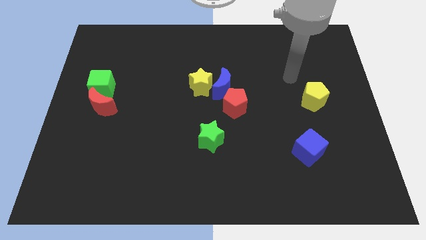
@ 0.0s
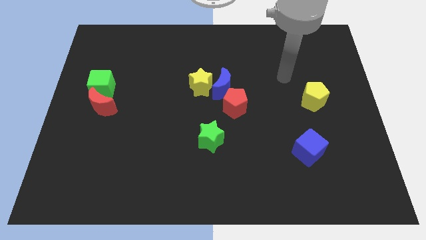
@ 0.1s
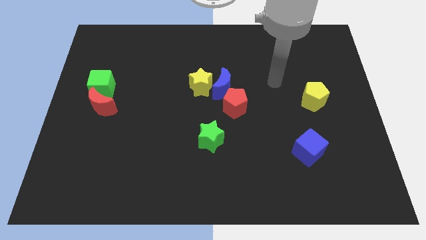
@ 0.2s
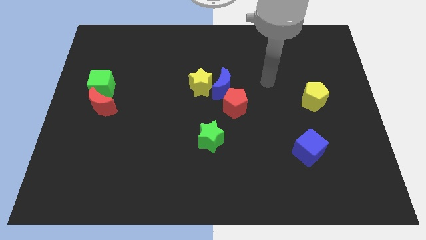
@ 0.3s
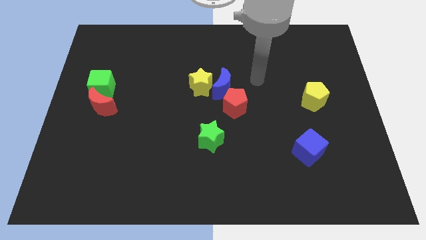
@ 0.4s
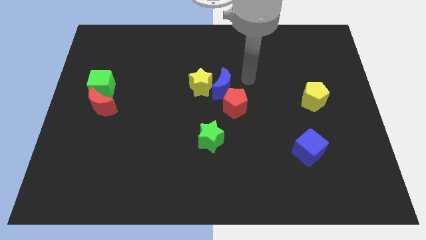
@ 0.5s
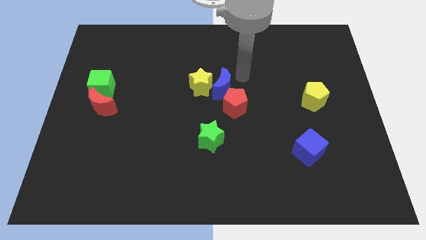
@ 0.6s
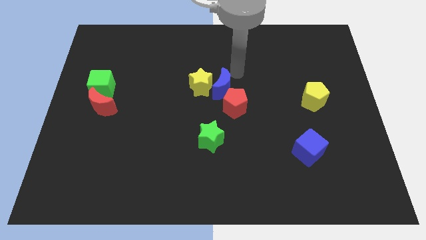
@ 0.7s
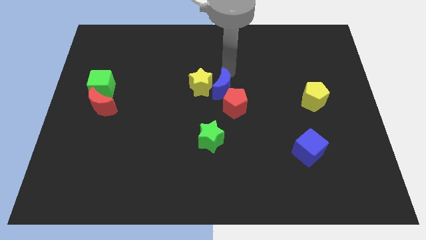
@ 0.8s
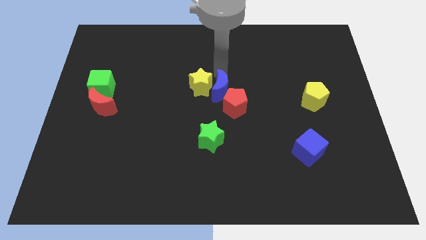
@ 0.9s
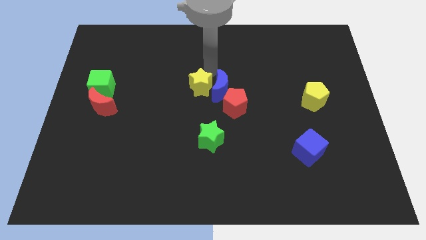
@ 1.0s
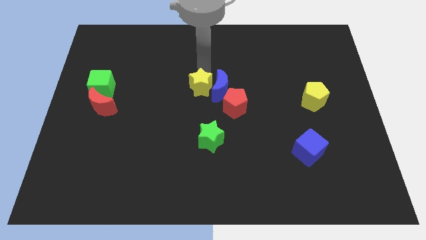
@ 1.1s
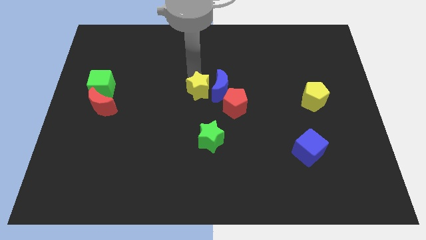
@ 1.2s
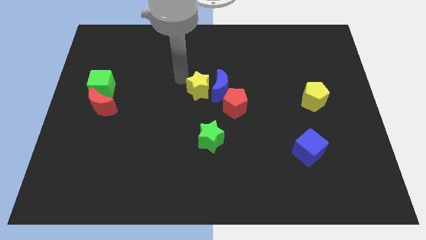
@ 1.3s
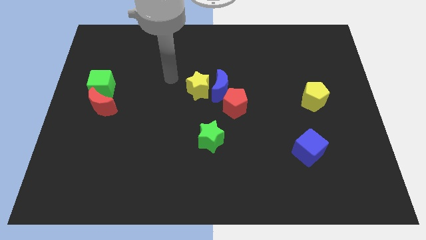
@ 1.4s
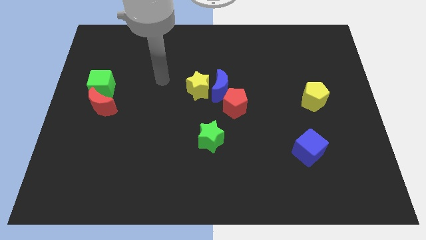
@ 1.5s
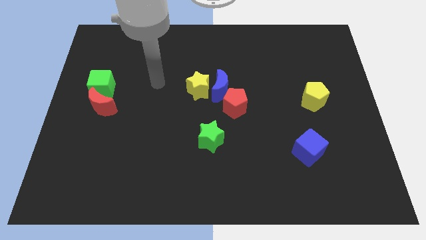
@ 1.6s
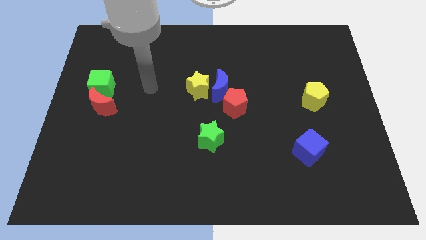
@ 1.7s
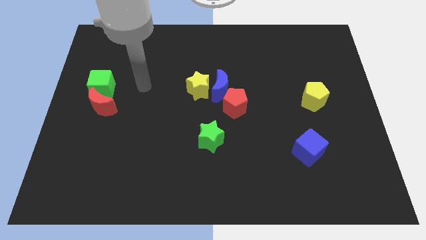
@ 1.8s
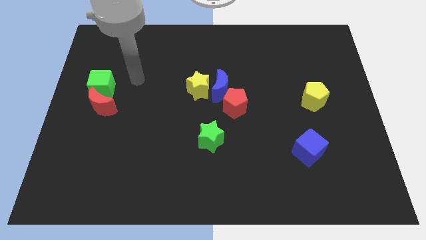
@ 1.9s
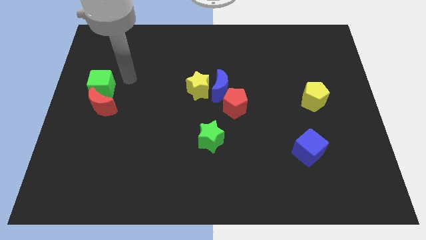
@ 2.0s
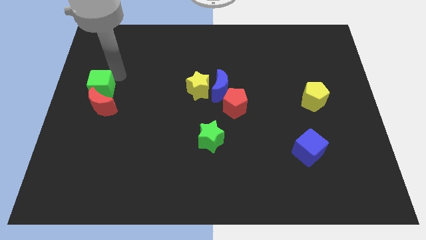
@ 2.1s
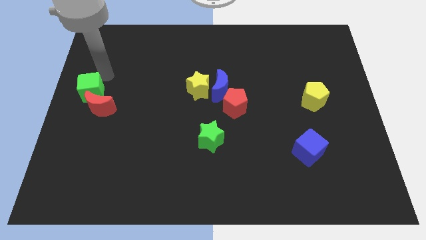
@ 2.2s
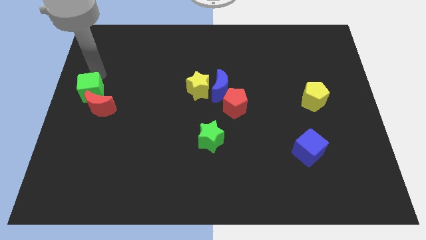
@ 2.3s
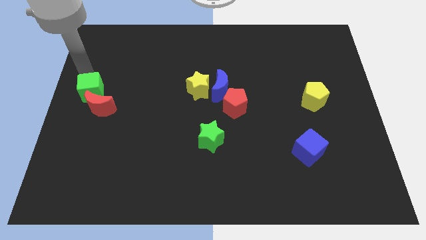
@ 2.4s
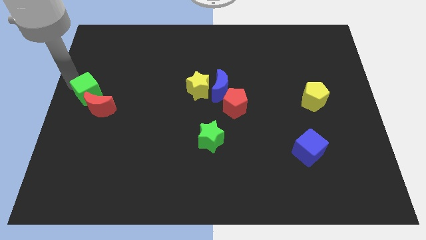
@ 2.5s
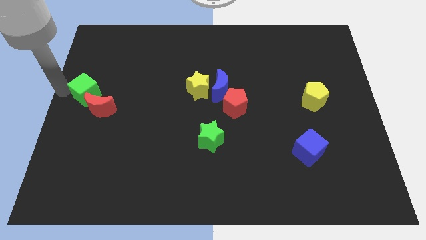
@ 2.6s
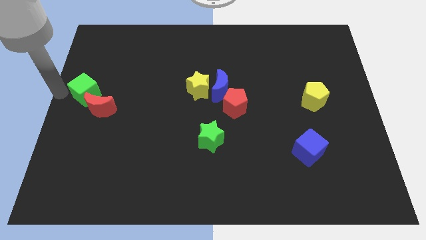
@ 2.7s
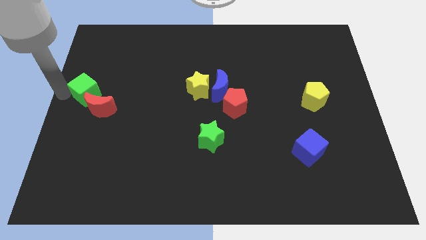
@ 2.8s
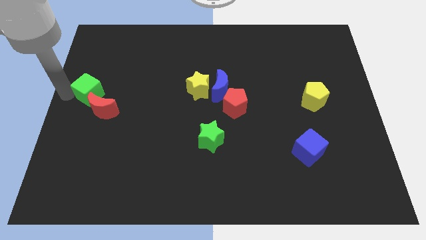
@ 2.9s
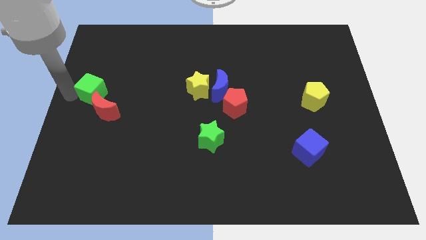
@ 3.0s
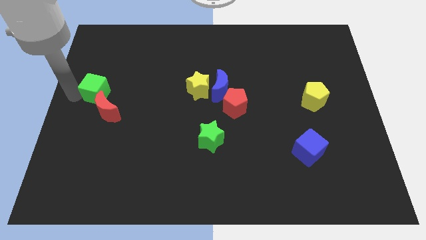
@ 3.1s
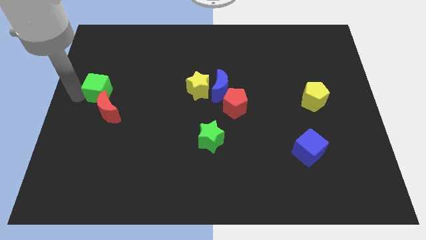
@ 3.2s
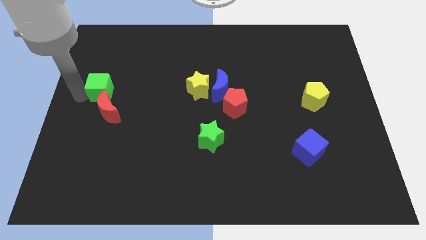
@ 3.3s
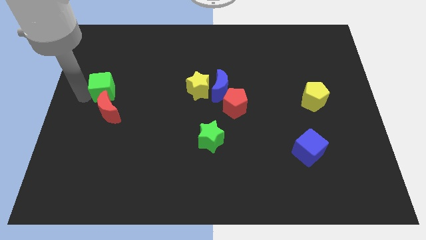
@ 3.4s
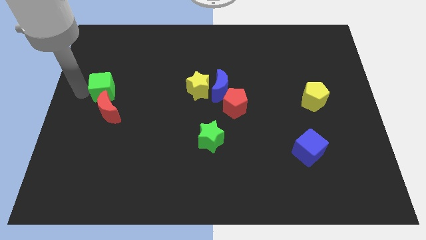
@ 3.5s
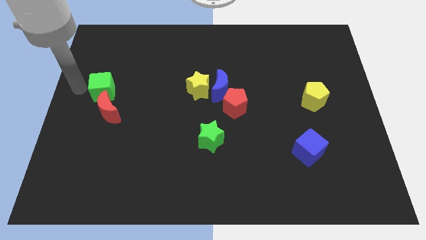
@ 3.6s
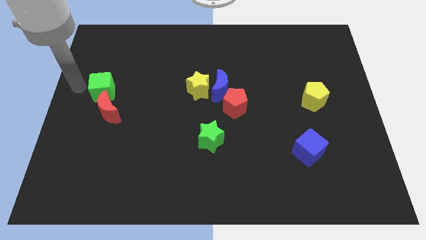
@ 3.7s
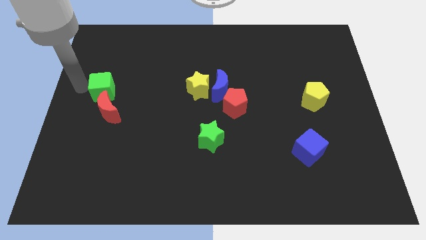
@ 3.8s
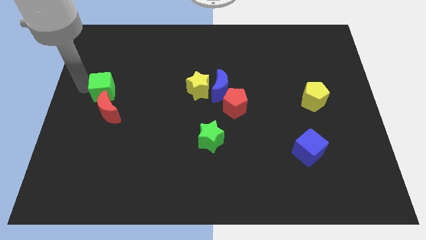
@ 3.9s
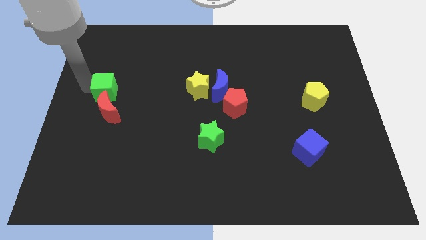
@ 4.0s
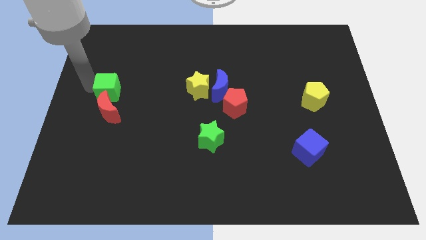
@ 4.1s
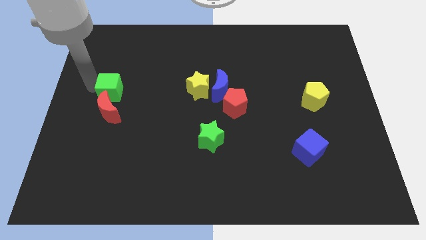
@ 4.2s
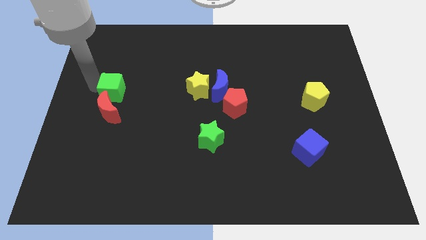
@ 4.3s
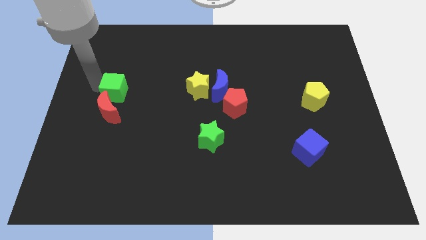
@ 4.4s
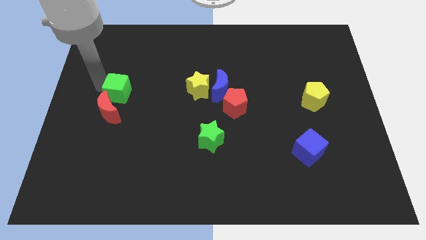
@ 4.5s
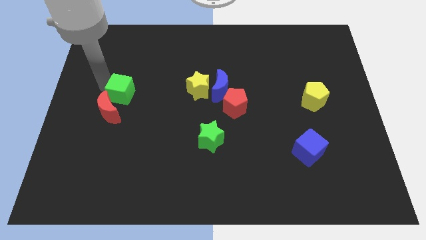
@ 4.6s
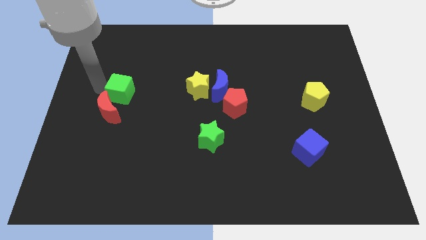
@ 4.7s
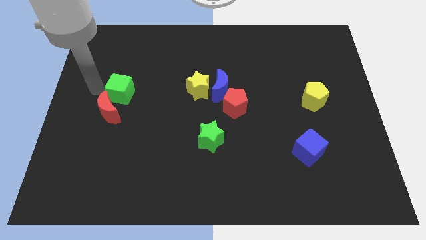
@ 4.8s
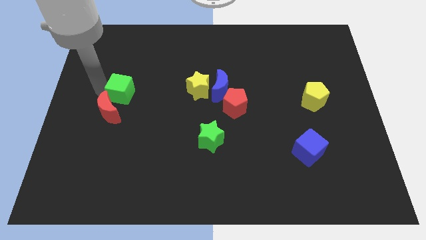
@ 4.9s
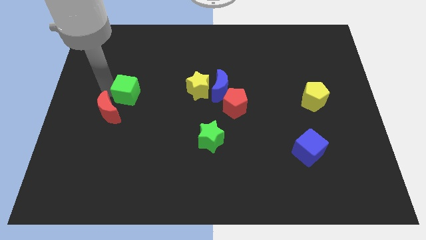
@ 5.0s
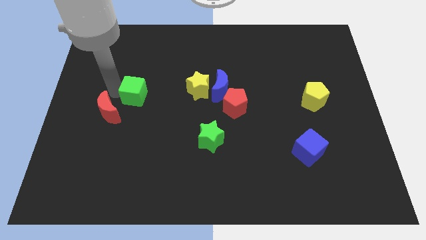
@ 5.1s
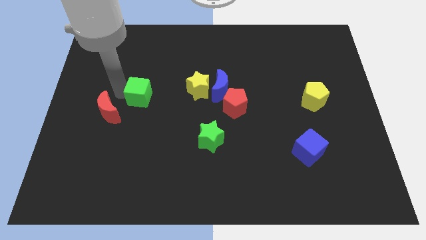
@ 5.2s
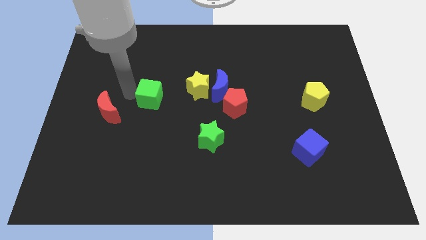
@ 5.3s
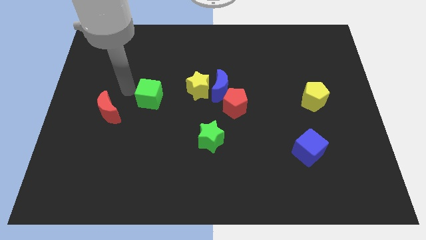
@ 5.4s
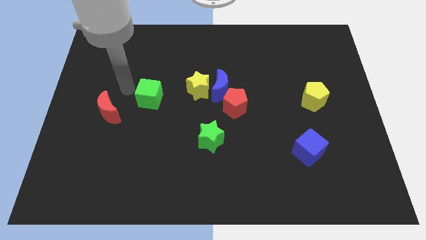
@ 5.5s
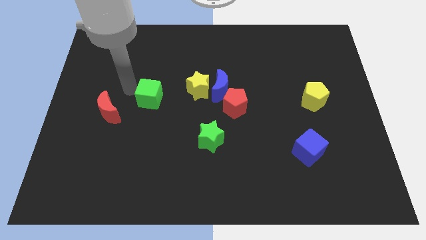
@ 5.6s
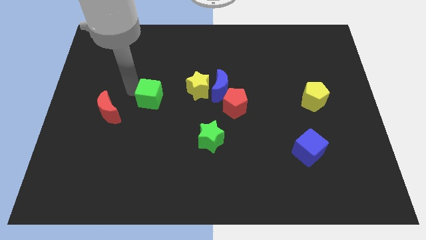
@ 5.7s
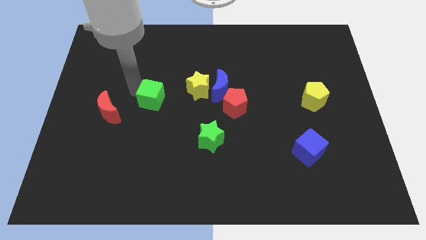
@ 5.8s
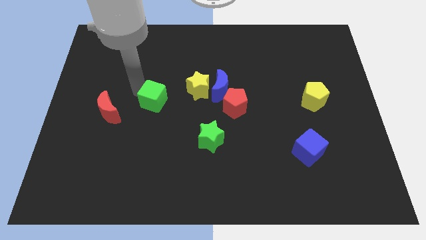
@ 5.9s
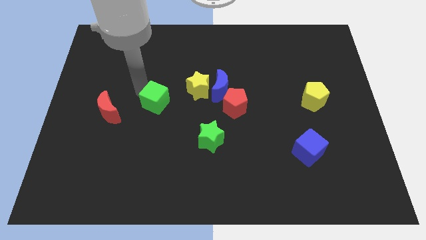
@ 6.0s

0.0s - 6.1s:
move the green cube to the bottom left of the yellow star

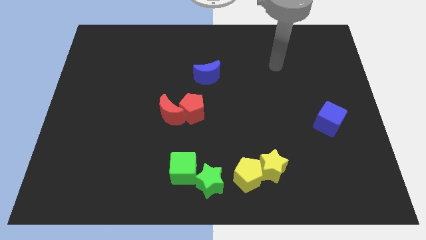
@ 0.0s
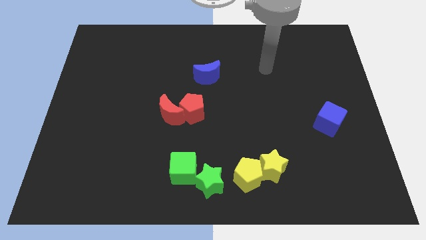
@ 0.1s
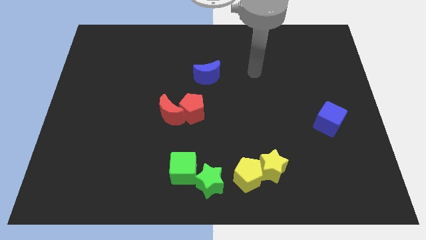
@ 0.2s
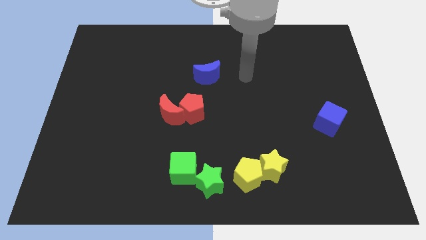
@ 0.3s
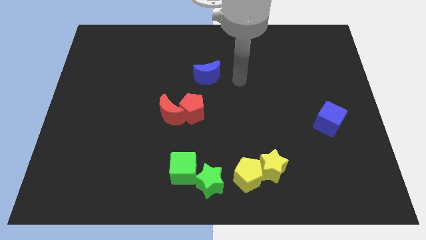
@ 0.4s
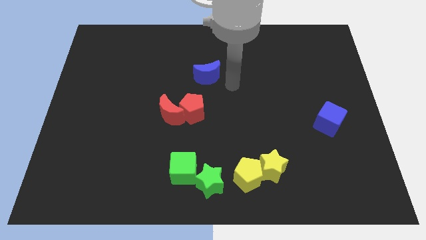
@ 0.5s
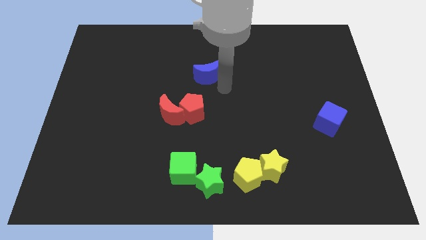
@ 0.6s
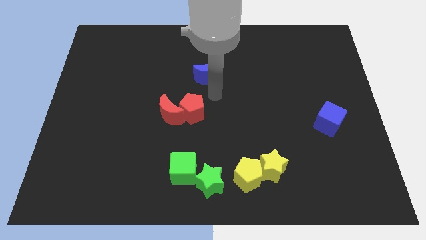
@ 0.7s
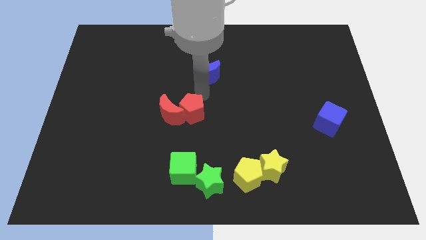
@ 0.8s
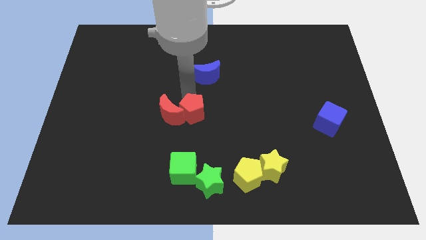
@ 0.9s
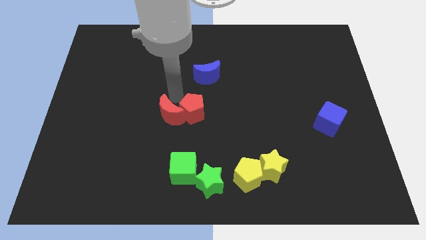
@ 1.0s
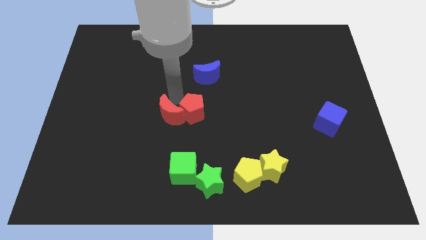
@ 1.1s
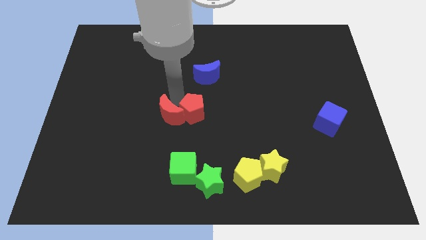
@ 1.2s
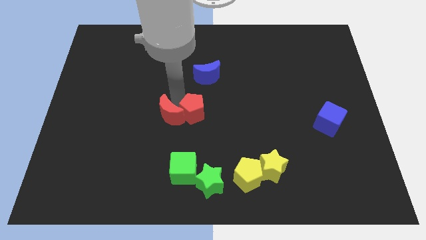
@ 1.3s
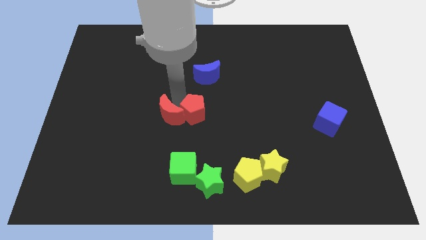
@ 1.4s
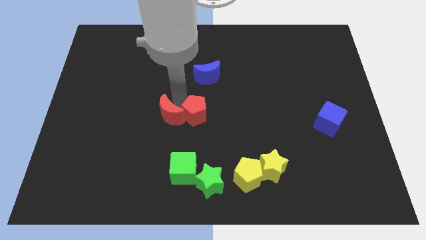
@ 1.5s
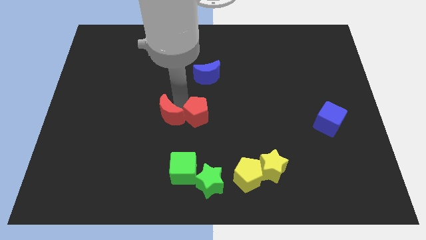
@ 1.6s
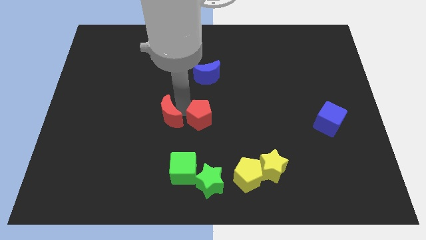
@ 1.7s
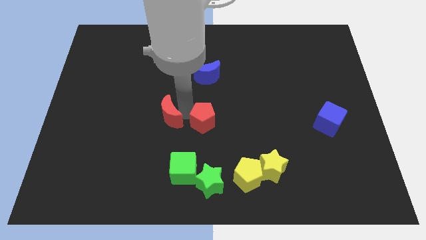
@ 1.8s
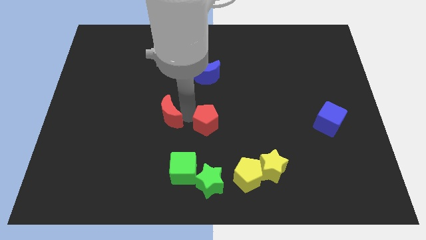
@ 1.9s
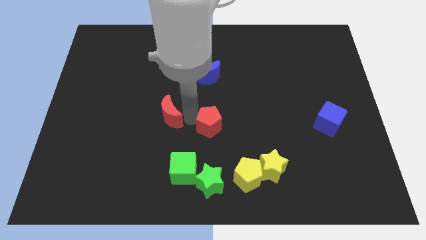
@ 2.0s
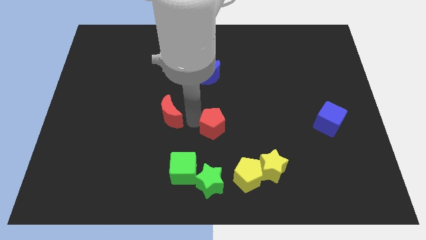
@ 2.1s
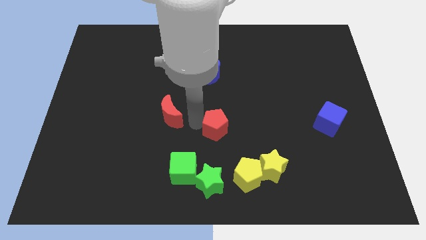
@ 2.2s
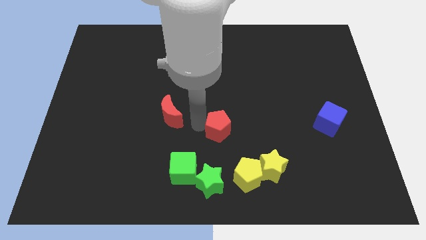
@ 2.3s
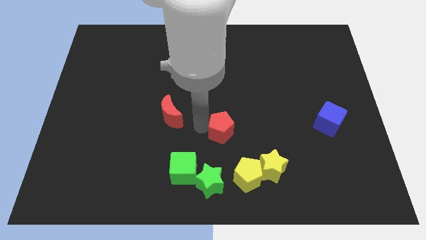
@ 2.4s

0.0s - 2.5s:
move the red pentagon above the yellow pentagon
